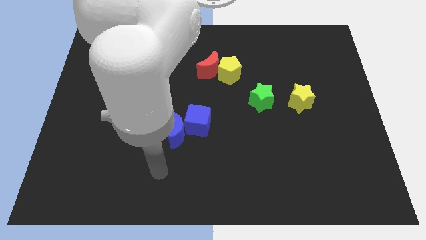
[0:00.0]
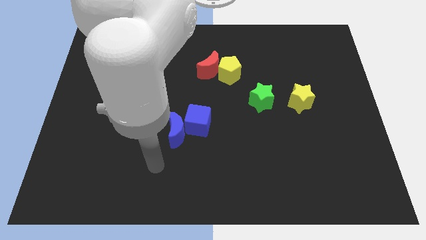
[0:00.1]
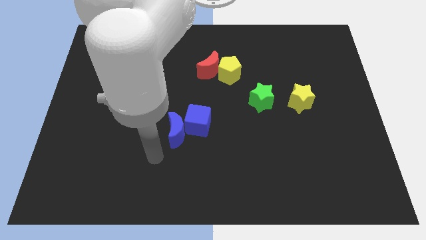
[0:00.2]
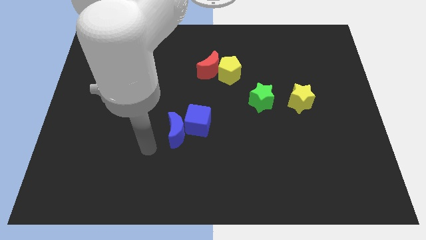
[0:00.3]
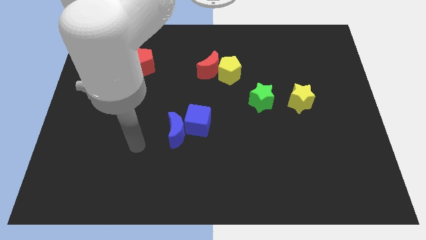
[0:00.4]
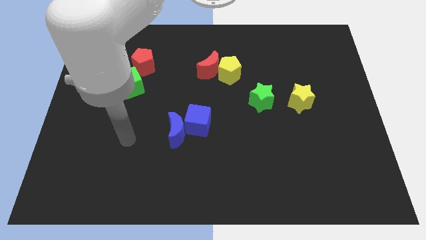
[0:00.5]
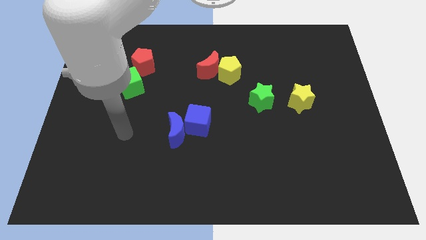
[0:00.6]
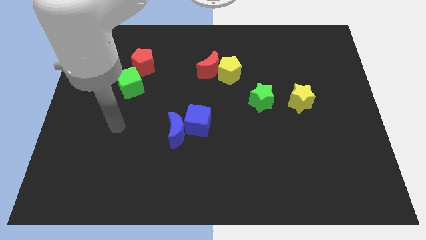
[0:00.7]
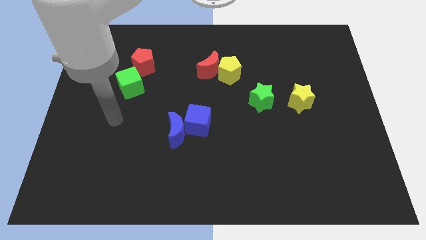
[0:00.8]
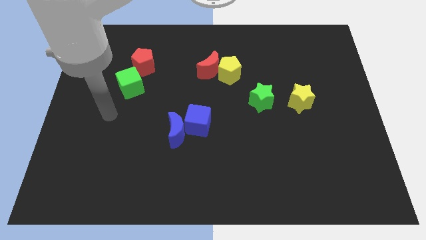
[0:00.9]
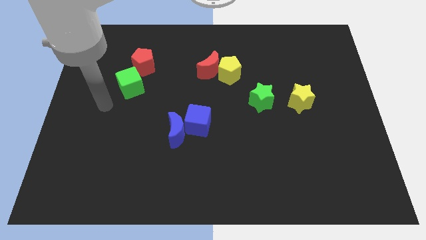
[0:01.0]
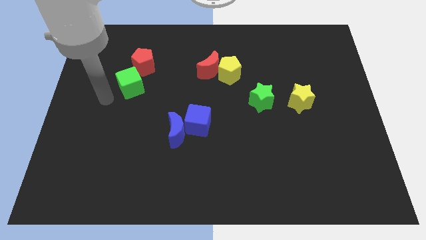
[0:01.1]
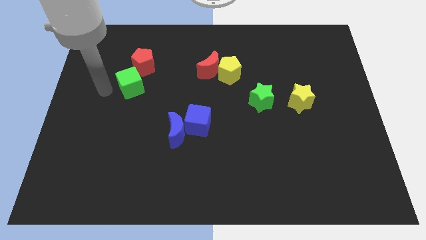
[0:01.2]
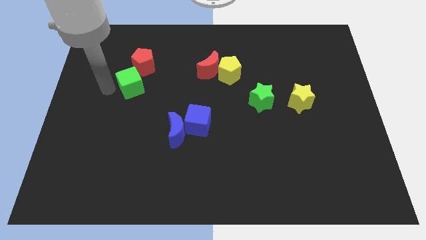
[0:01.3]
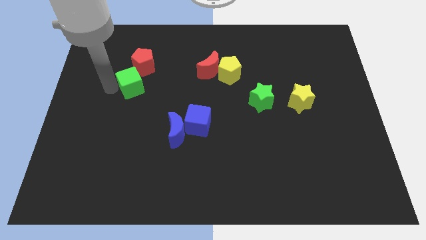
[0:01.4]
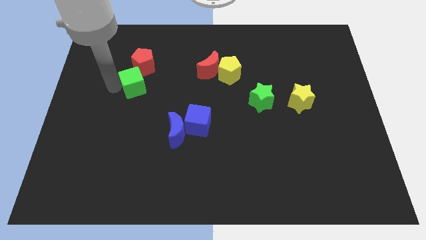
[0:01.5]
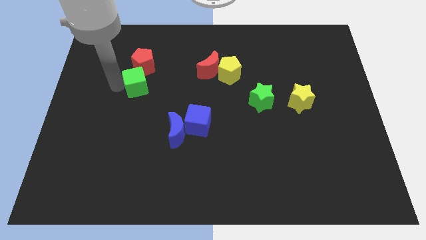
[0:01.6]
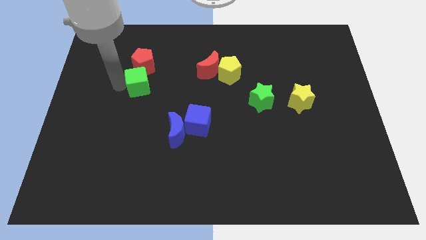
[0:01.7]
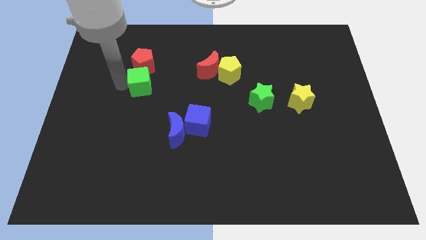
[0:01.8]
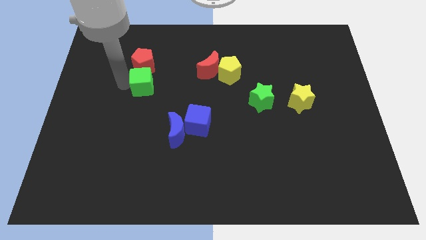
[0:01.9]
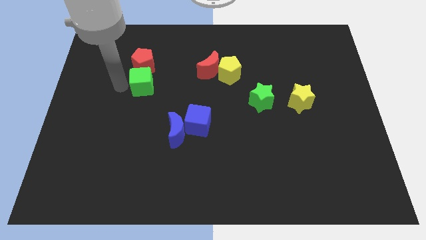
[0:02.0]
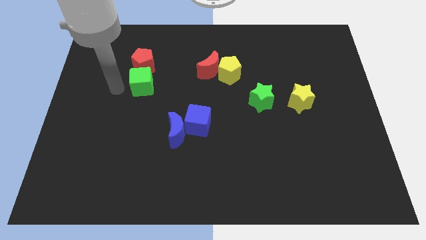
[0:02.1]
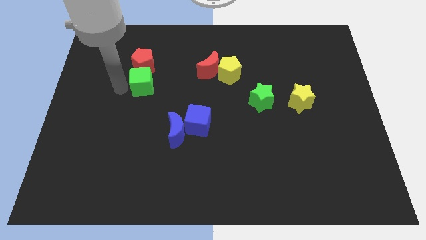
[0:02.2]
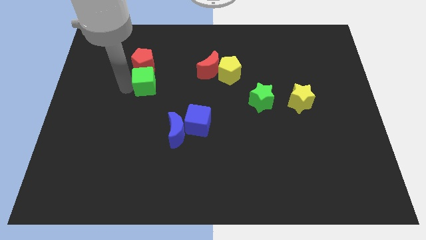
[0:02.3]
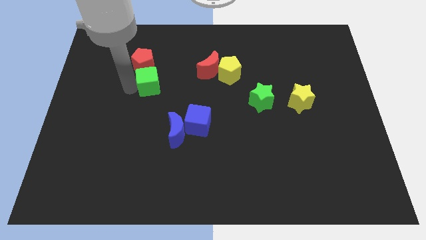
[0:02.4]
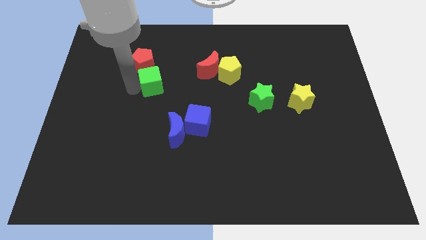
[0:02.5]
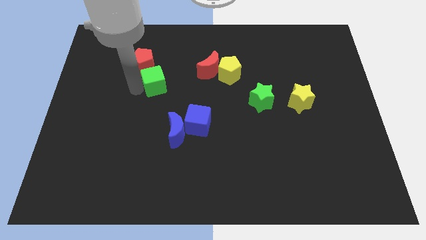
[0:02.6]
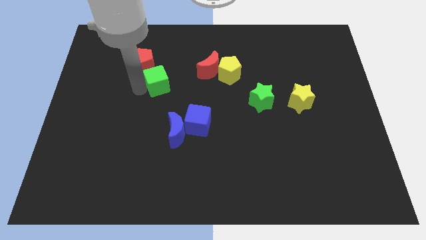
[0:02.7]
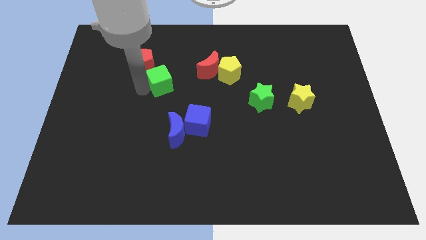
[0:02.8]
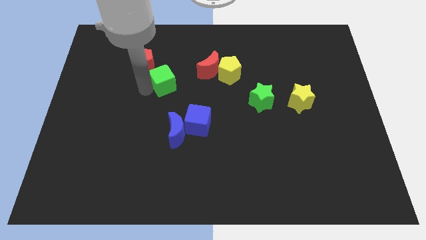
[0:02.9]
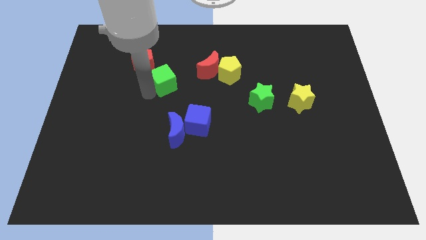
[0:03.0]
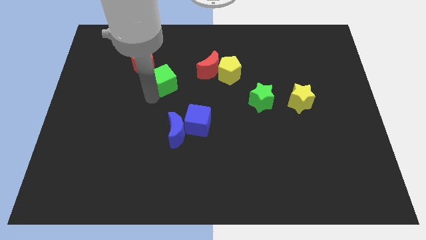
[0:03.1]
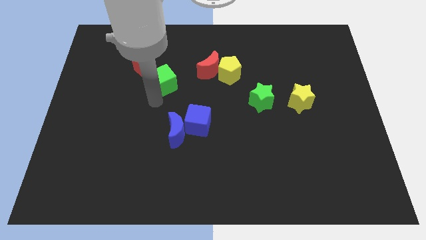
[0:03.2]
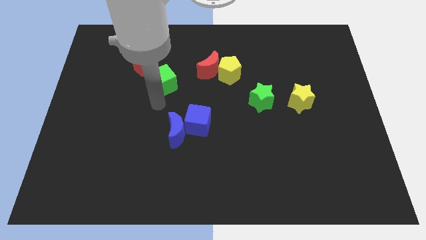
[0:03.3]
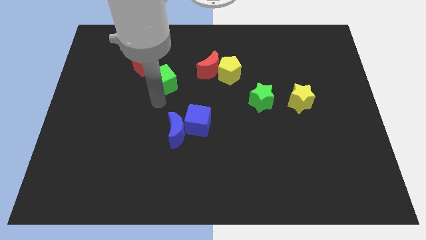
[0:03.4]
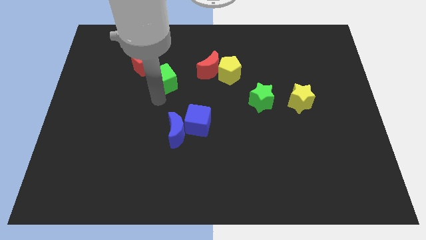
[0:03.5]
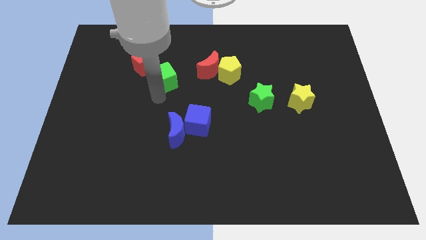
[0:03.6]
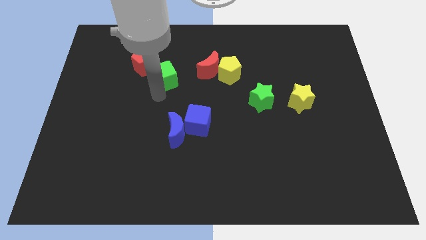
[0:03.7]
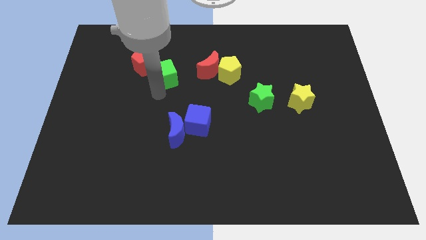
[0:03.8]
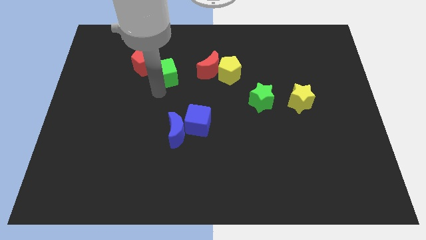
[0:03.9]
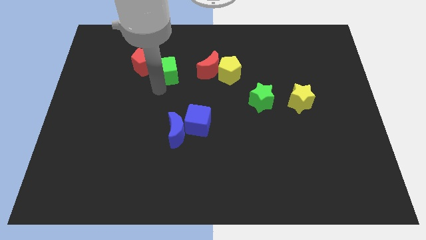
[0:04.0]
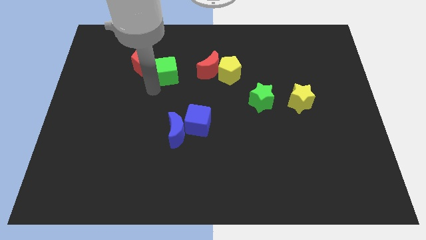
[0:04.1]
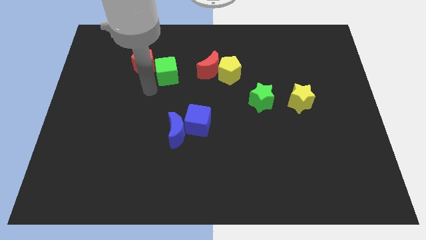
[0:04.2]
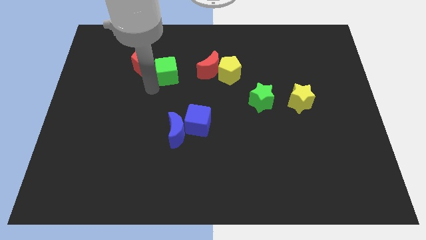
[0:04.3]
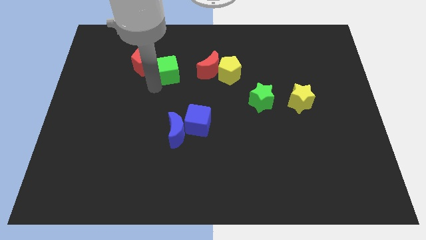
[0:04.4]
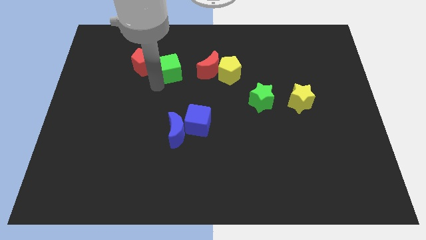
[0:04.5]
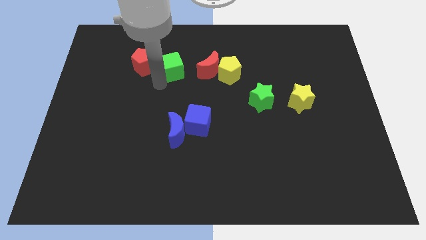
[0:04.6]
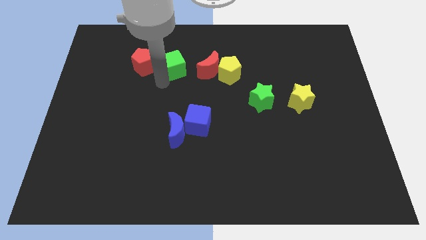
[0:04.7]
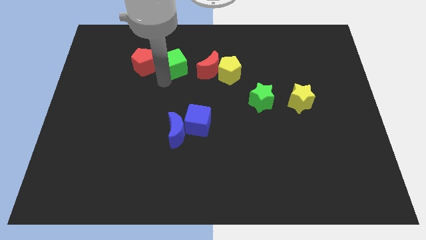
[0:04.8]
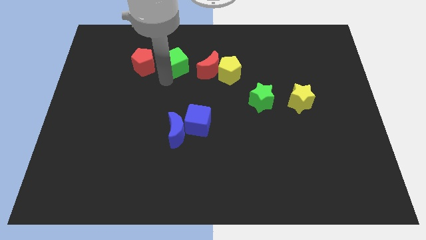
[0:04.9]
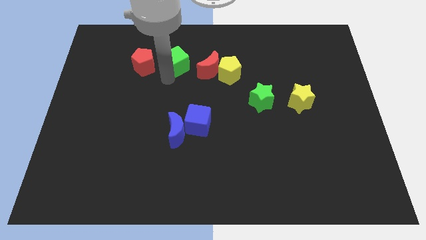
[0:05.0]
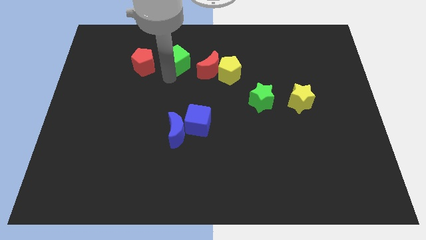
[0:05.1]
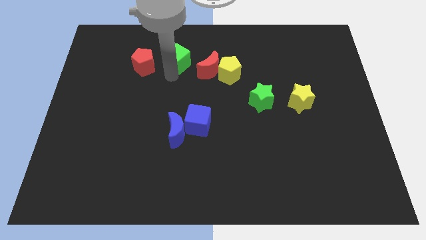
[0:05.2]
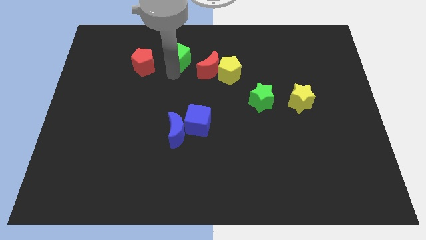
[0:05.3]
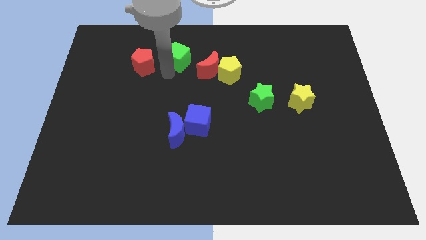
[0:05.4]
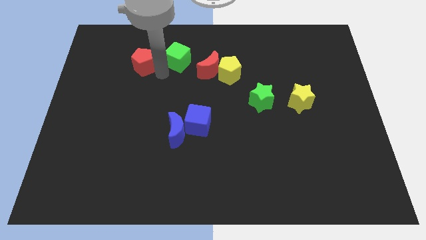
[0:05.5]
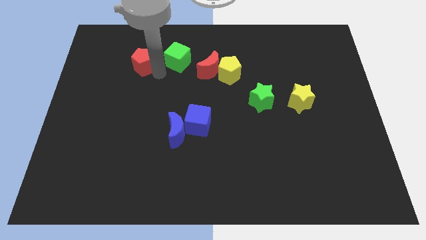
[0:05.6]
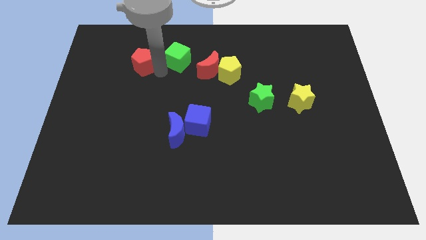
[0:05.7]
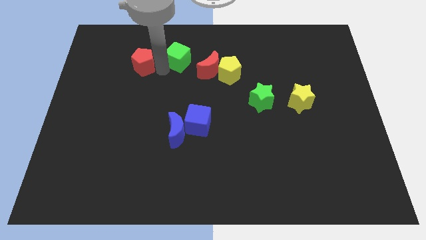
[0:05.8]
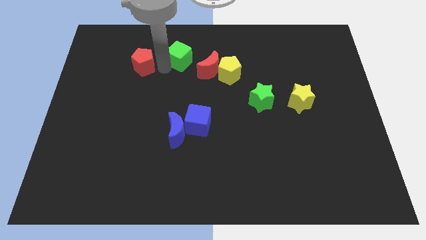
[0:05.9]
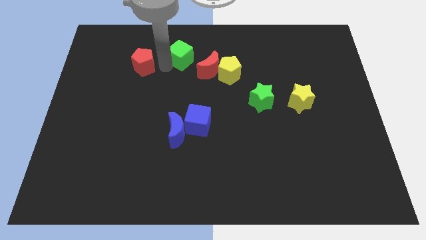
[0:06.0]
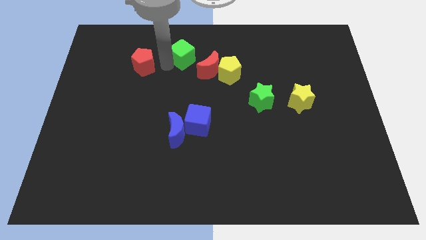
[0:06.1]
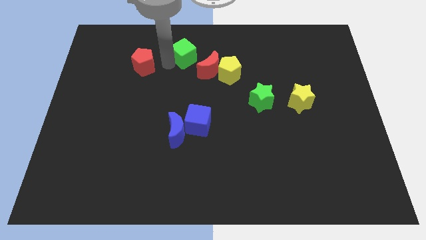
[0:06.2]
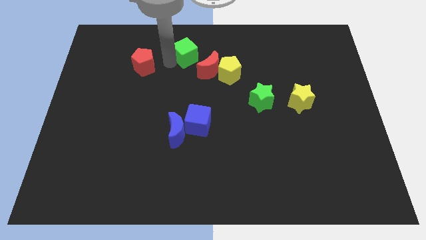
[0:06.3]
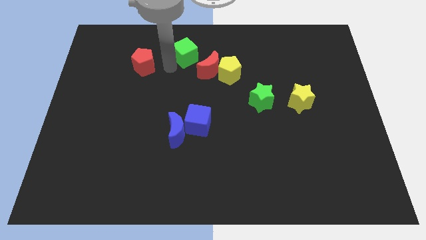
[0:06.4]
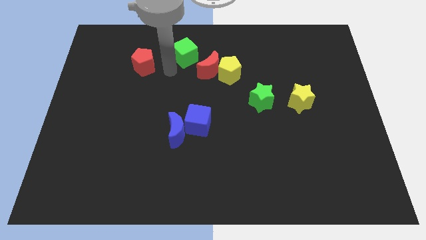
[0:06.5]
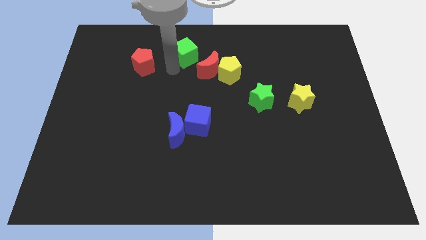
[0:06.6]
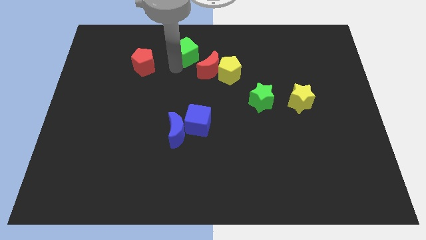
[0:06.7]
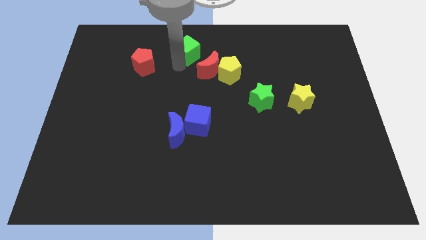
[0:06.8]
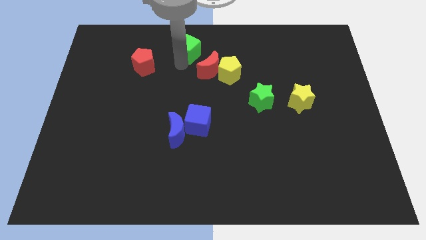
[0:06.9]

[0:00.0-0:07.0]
move the green cube to the top

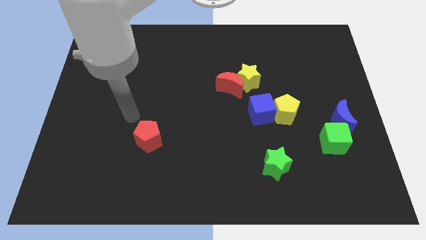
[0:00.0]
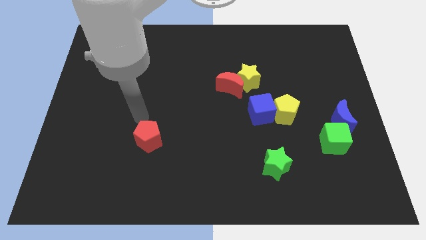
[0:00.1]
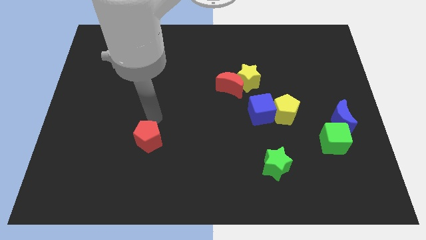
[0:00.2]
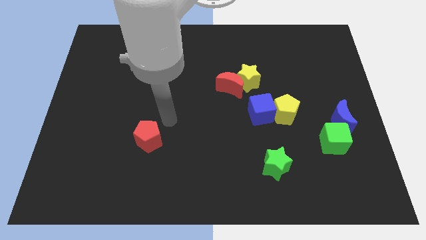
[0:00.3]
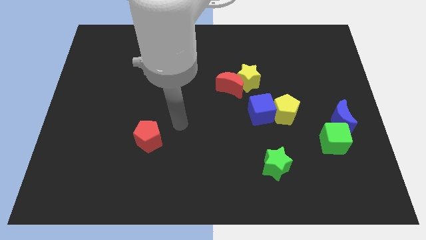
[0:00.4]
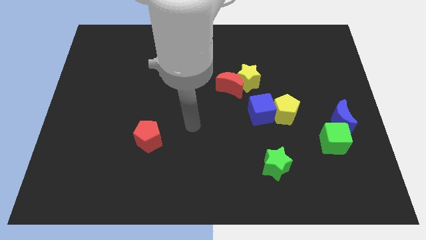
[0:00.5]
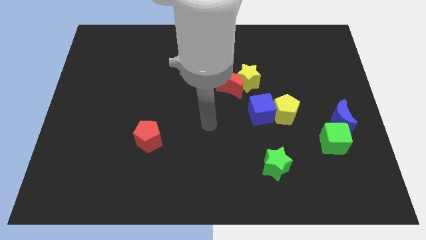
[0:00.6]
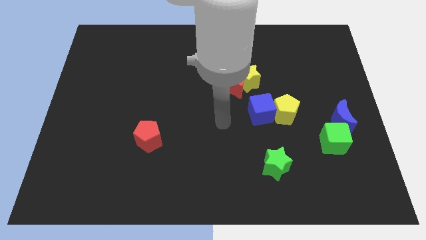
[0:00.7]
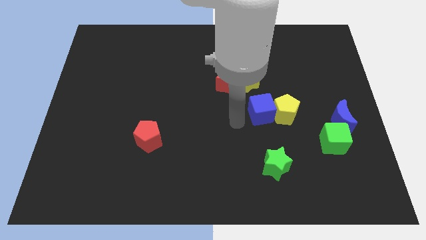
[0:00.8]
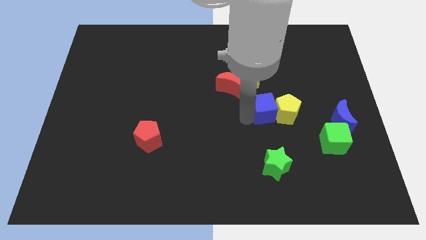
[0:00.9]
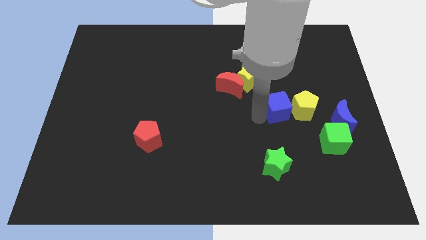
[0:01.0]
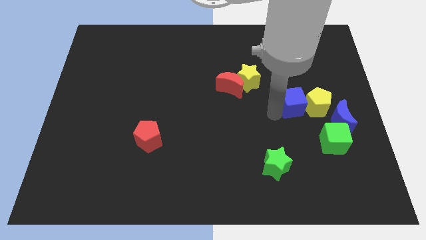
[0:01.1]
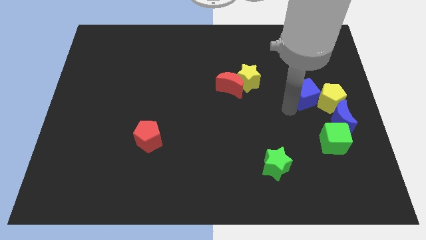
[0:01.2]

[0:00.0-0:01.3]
put the yellow pentagon to the center right
